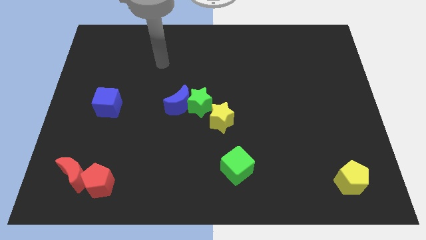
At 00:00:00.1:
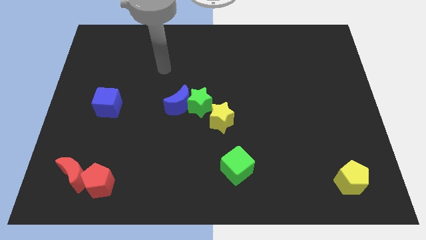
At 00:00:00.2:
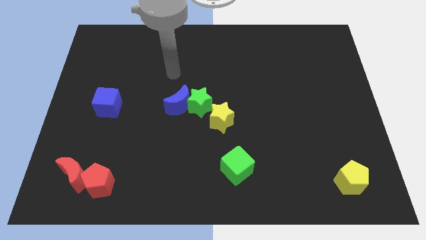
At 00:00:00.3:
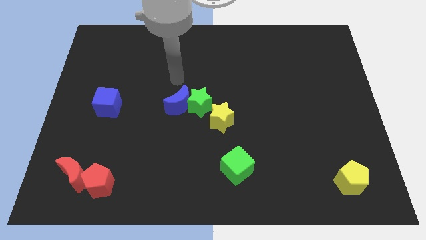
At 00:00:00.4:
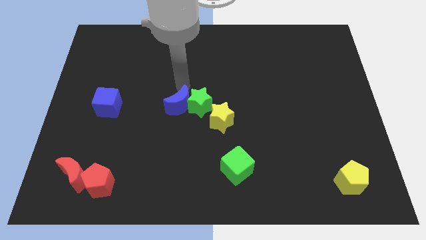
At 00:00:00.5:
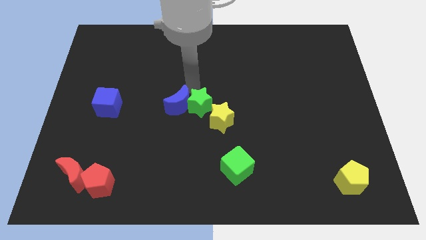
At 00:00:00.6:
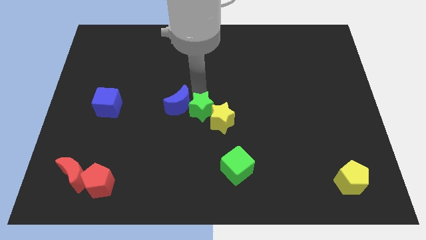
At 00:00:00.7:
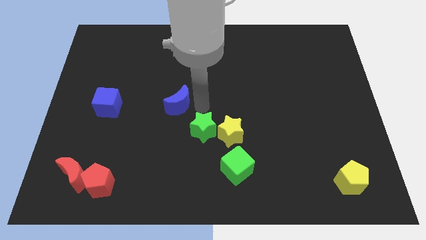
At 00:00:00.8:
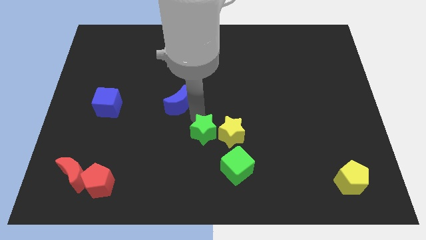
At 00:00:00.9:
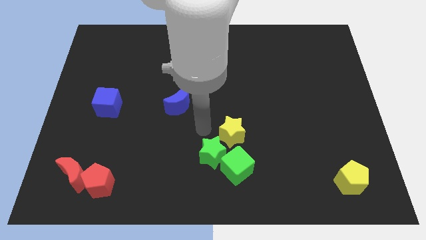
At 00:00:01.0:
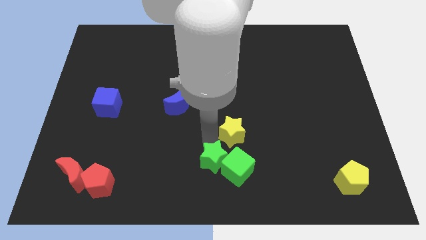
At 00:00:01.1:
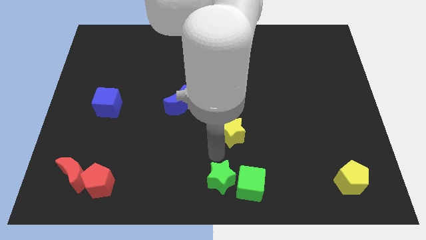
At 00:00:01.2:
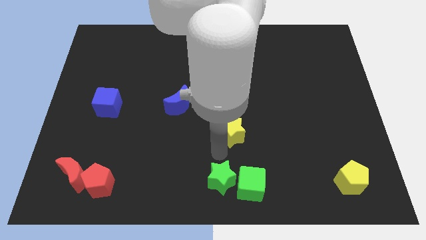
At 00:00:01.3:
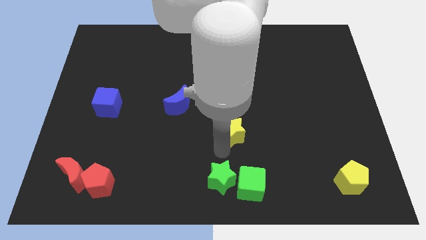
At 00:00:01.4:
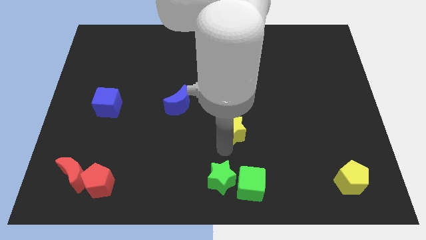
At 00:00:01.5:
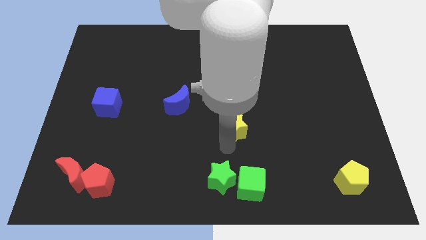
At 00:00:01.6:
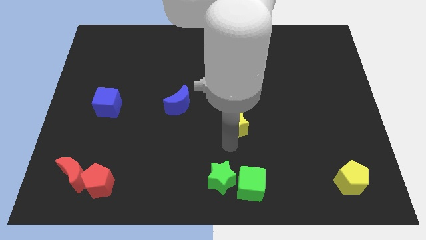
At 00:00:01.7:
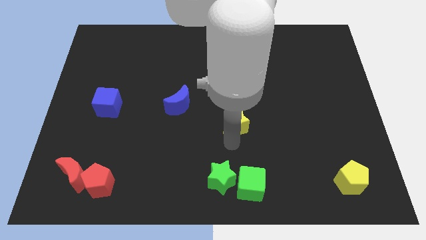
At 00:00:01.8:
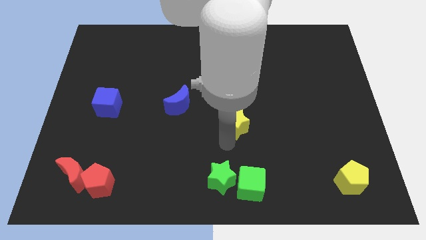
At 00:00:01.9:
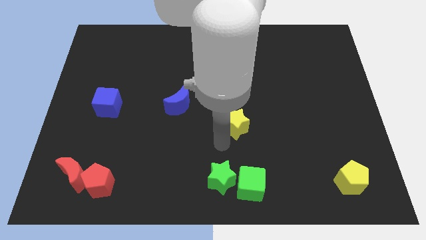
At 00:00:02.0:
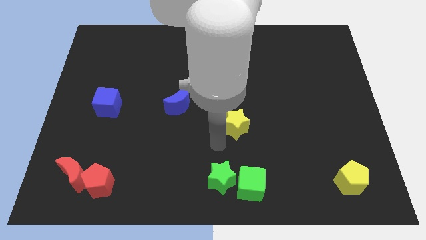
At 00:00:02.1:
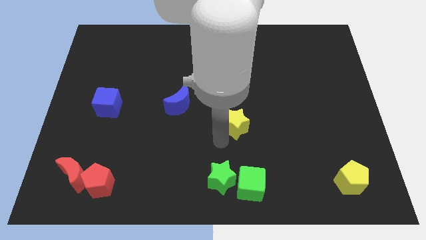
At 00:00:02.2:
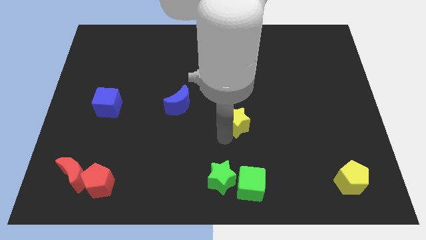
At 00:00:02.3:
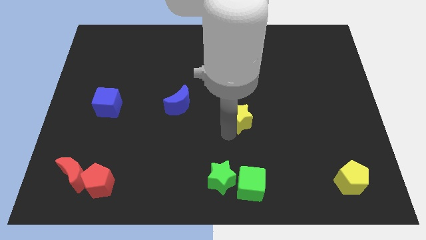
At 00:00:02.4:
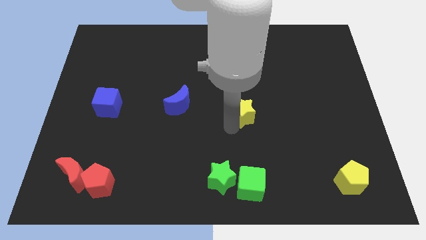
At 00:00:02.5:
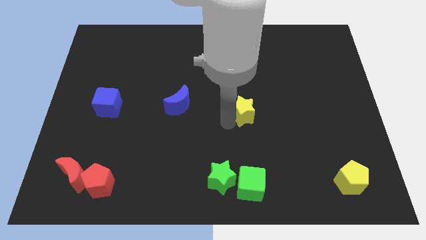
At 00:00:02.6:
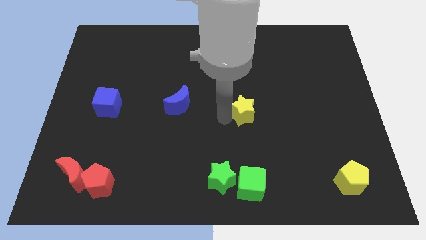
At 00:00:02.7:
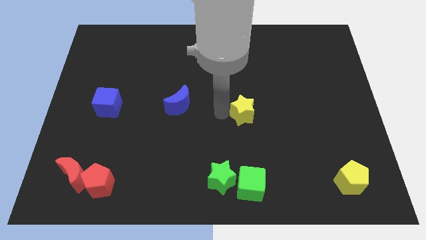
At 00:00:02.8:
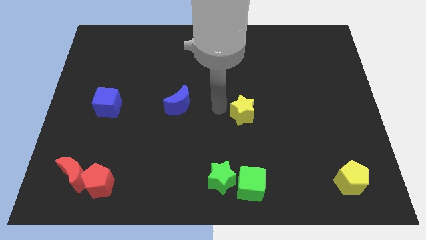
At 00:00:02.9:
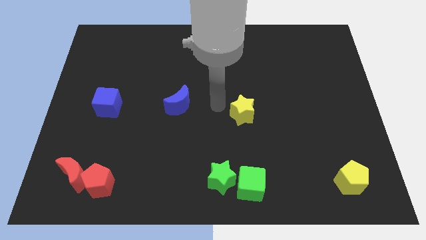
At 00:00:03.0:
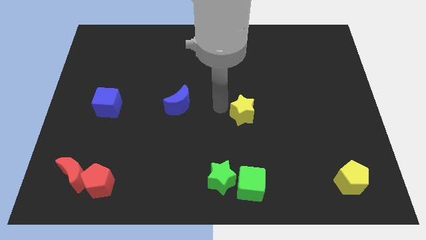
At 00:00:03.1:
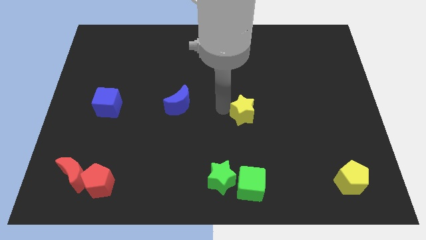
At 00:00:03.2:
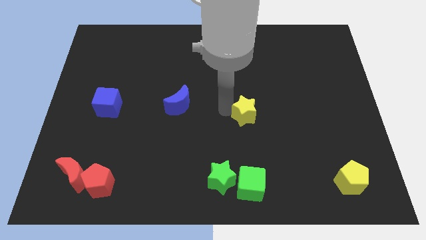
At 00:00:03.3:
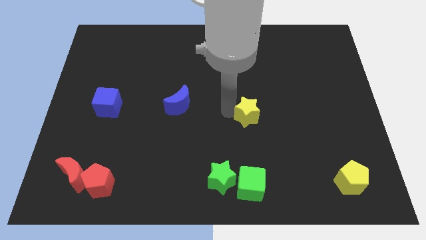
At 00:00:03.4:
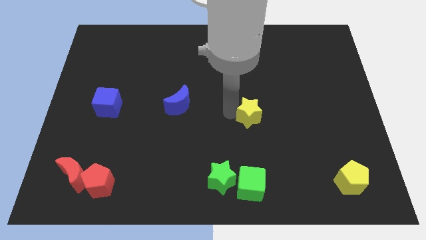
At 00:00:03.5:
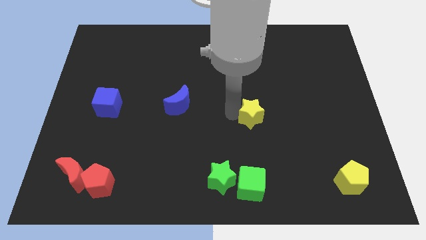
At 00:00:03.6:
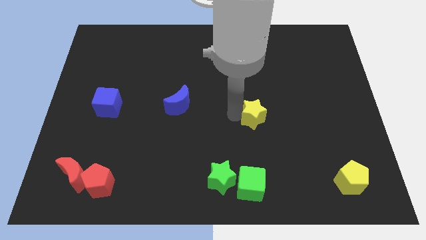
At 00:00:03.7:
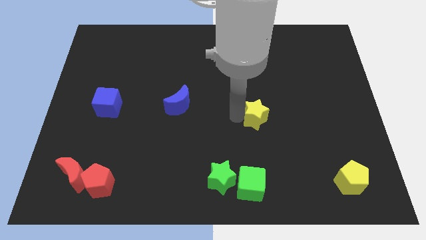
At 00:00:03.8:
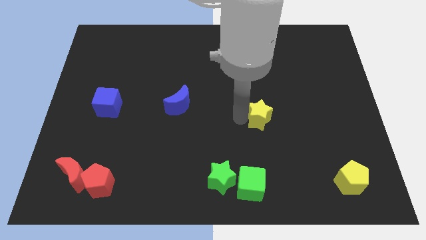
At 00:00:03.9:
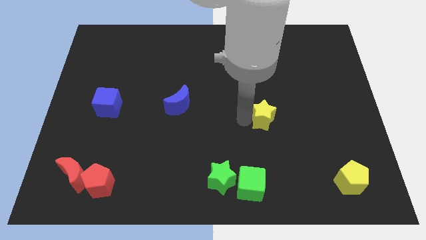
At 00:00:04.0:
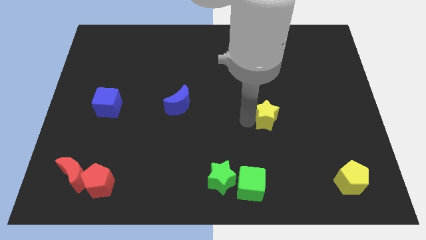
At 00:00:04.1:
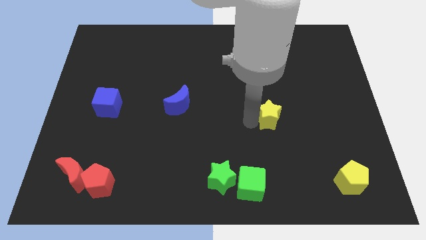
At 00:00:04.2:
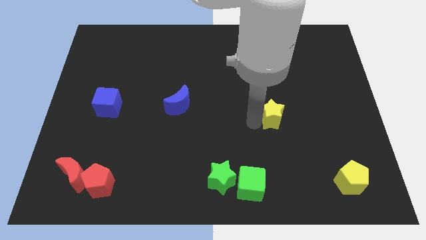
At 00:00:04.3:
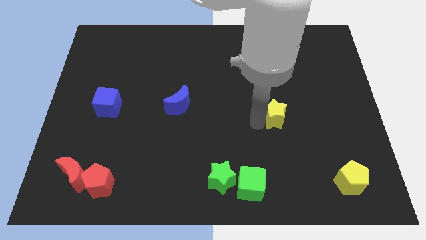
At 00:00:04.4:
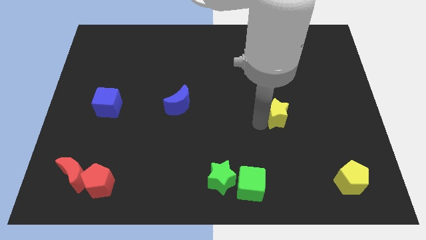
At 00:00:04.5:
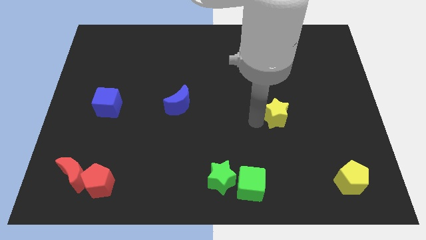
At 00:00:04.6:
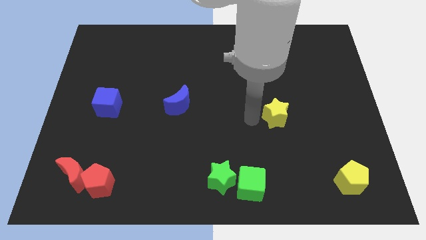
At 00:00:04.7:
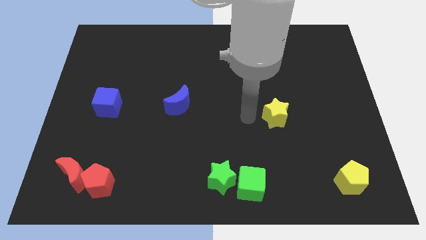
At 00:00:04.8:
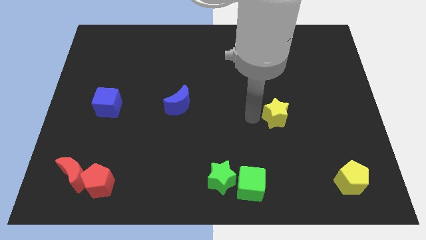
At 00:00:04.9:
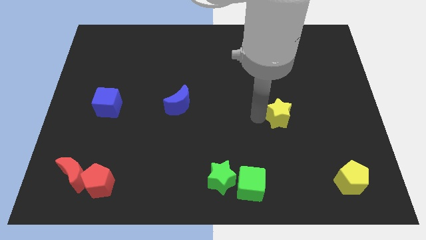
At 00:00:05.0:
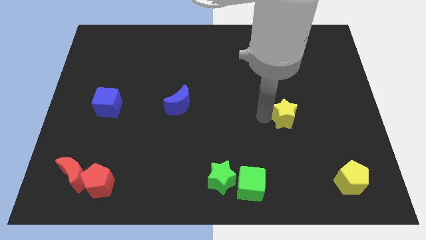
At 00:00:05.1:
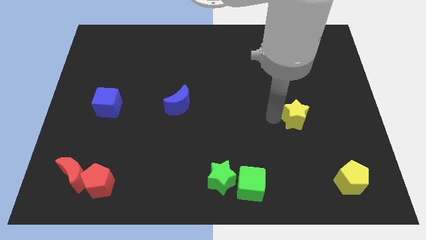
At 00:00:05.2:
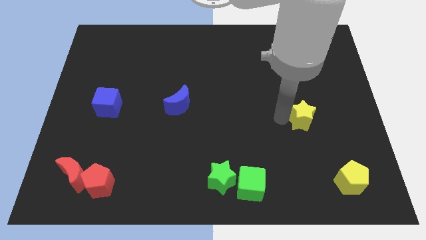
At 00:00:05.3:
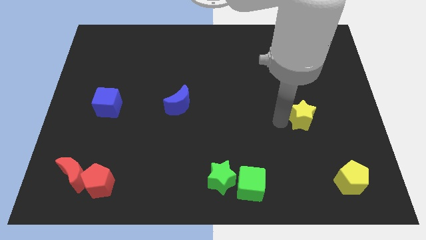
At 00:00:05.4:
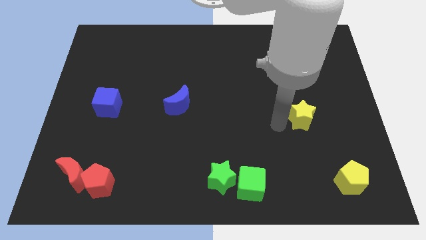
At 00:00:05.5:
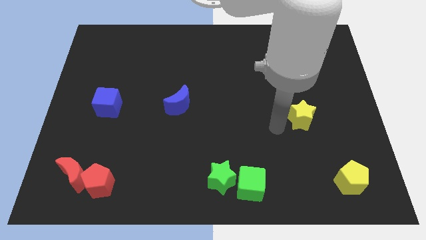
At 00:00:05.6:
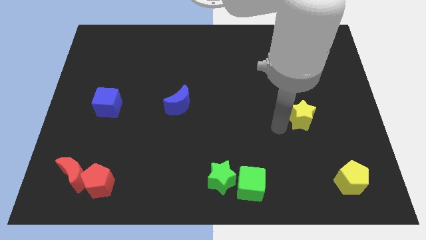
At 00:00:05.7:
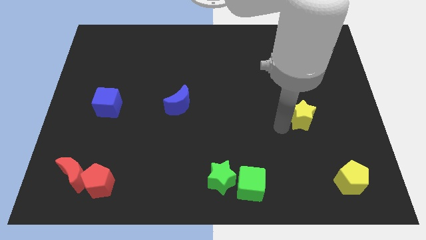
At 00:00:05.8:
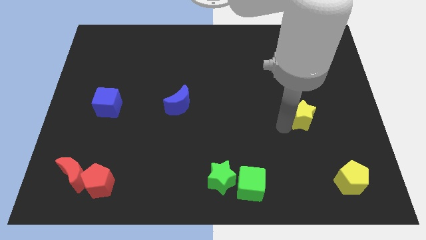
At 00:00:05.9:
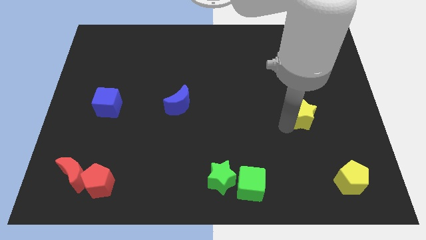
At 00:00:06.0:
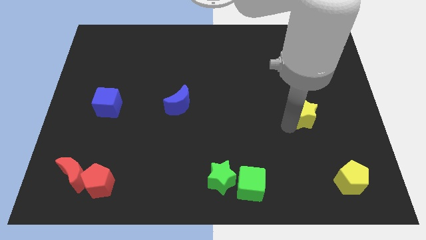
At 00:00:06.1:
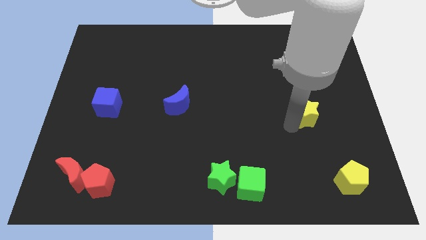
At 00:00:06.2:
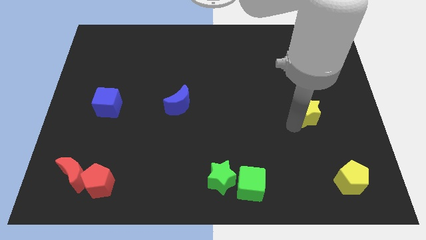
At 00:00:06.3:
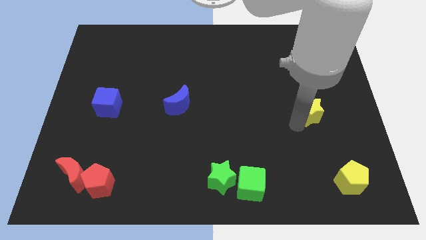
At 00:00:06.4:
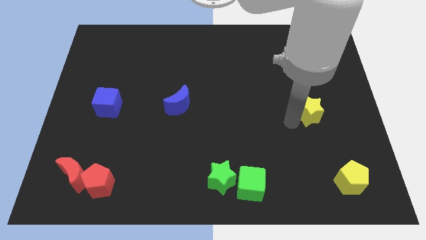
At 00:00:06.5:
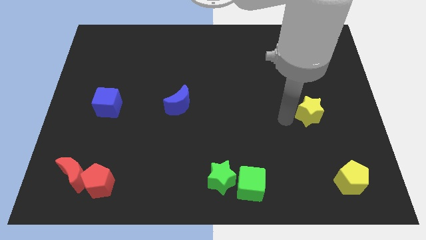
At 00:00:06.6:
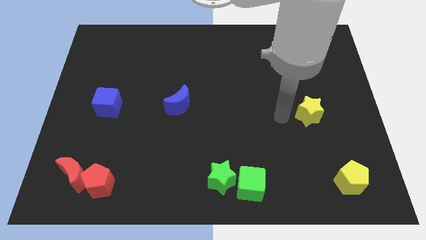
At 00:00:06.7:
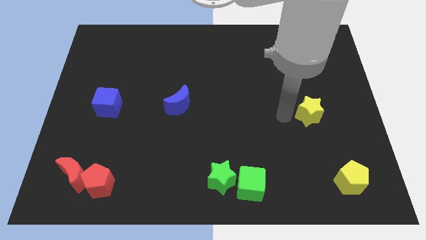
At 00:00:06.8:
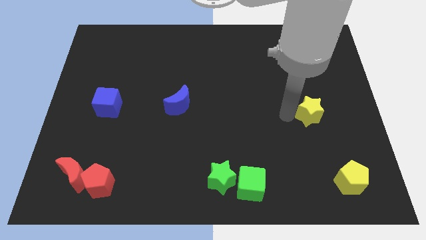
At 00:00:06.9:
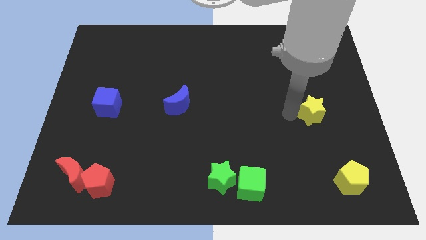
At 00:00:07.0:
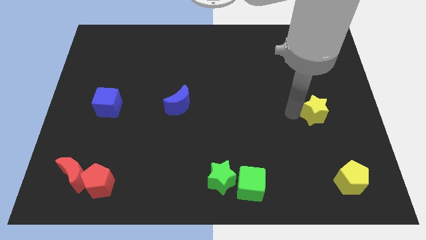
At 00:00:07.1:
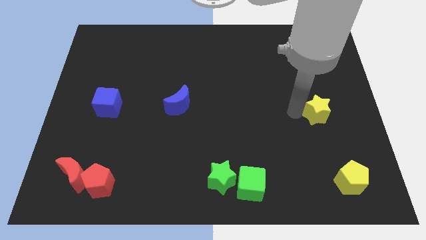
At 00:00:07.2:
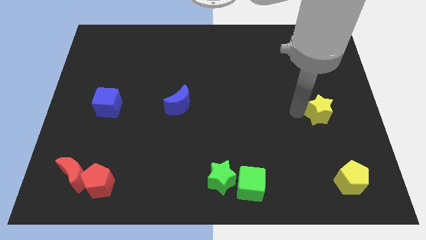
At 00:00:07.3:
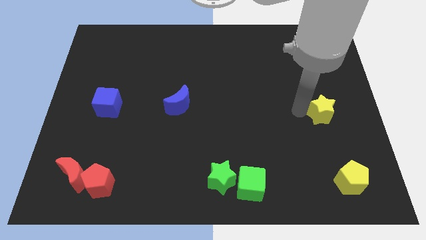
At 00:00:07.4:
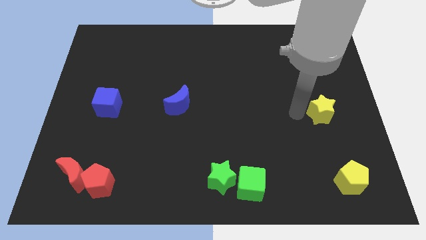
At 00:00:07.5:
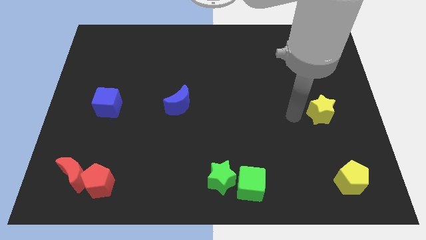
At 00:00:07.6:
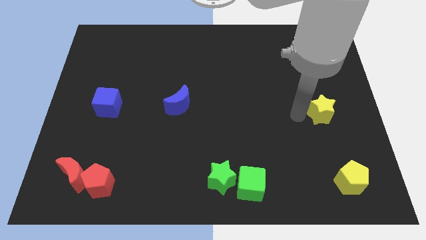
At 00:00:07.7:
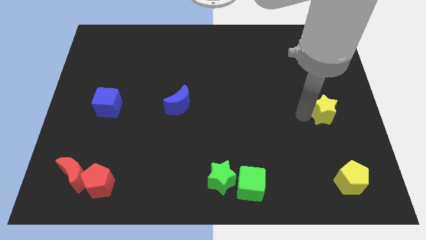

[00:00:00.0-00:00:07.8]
push the yellow star to the center right
